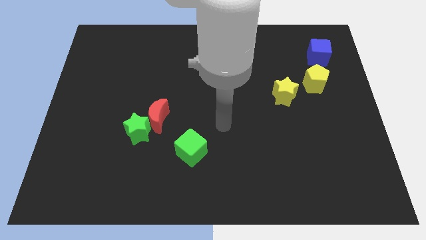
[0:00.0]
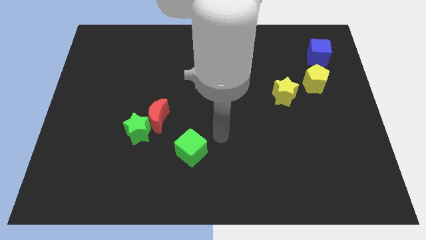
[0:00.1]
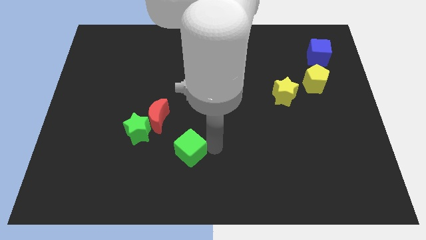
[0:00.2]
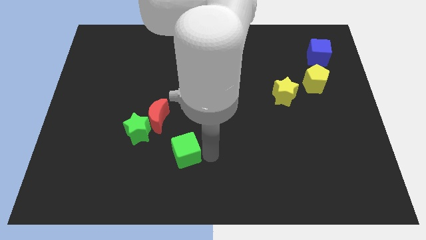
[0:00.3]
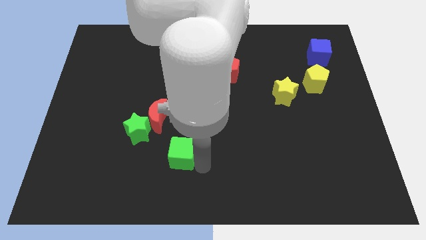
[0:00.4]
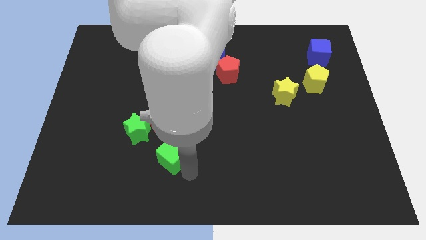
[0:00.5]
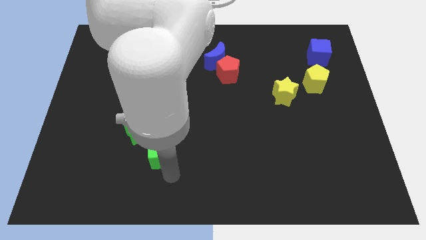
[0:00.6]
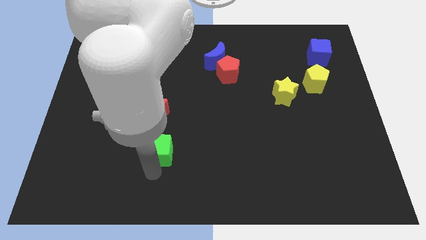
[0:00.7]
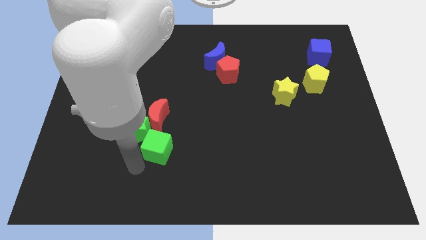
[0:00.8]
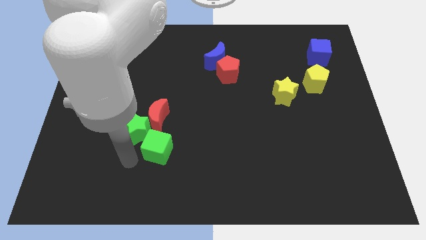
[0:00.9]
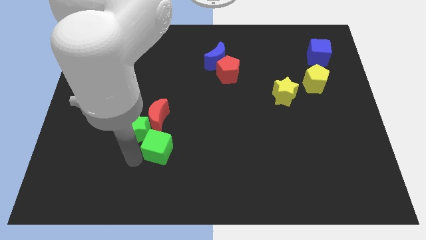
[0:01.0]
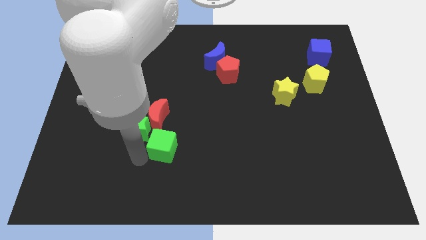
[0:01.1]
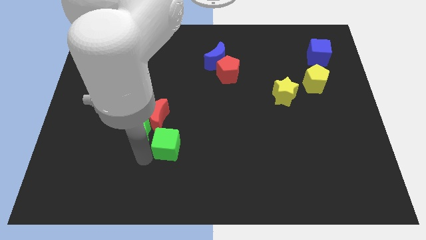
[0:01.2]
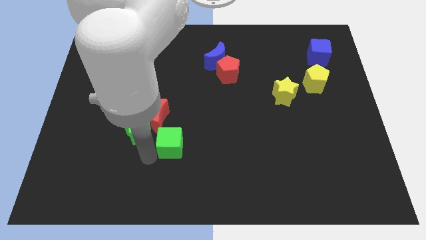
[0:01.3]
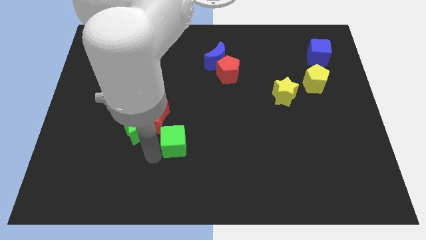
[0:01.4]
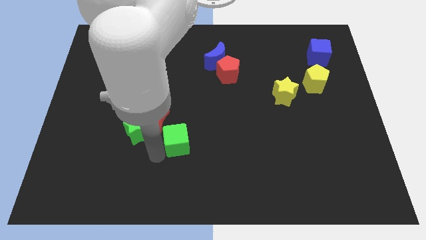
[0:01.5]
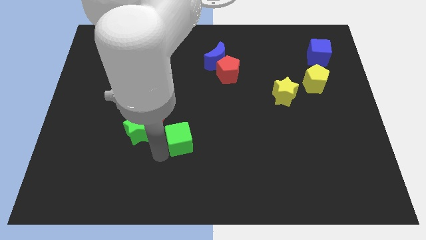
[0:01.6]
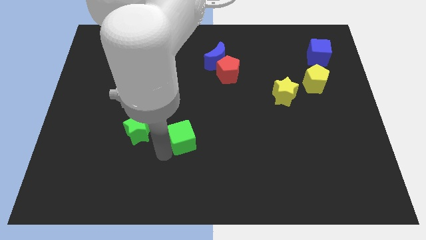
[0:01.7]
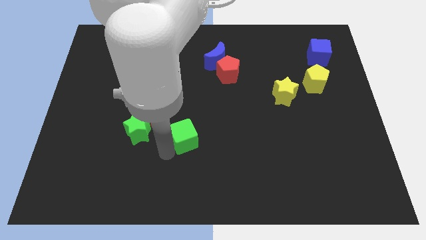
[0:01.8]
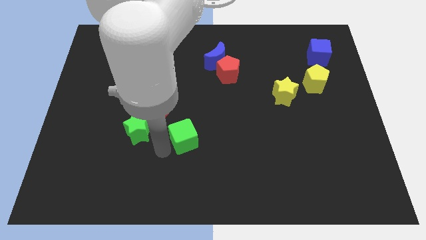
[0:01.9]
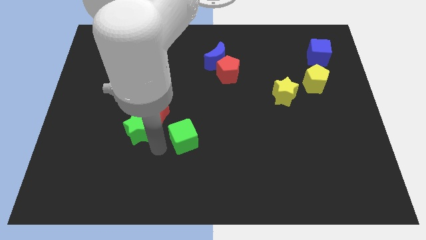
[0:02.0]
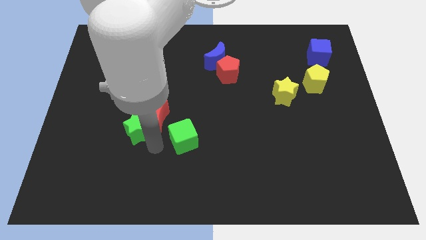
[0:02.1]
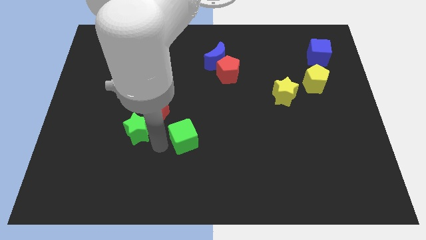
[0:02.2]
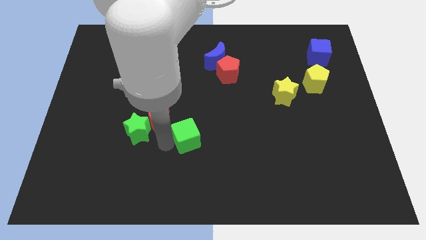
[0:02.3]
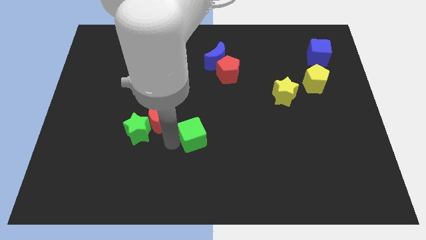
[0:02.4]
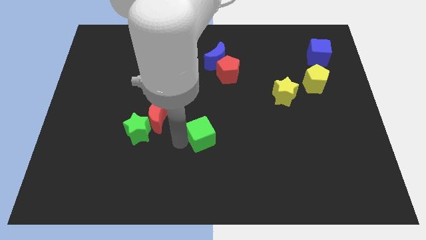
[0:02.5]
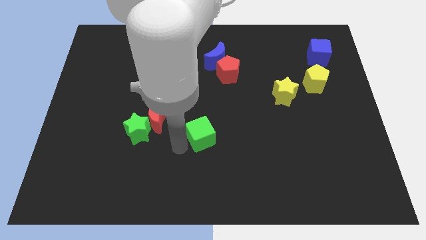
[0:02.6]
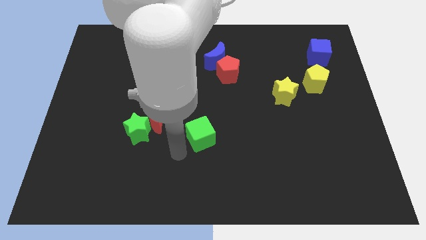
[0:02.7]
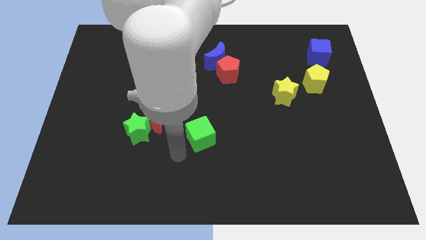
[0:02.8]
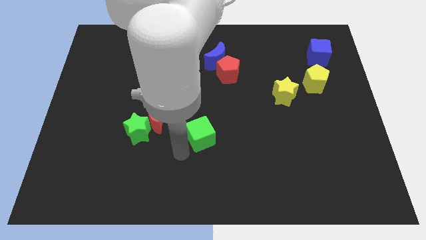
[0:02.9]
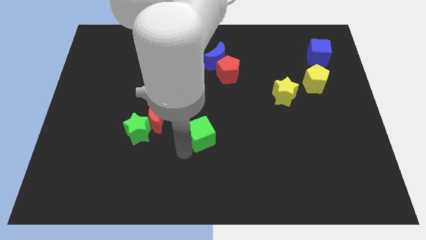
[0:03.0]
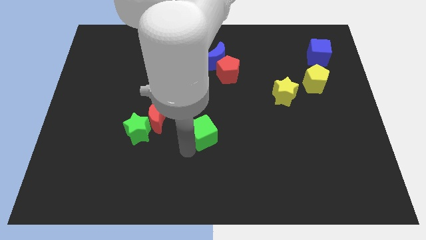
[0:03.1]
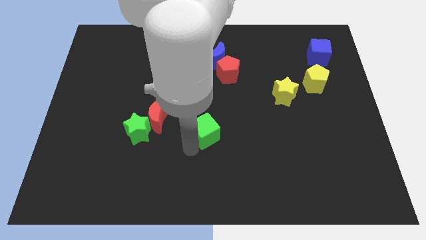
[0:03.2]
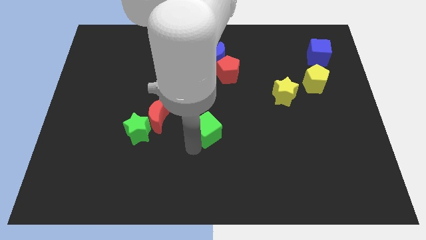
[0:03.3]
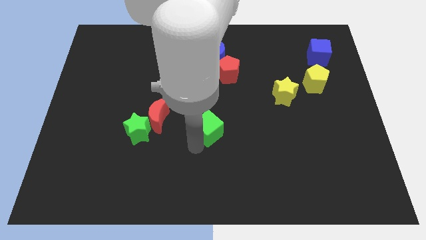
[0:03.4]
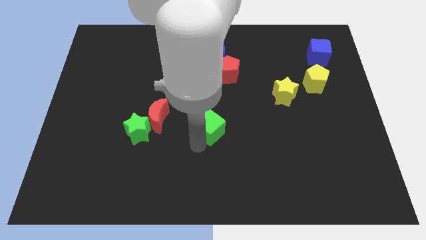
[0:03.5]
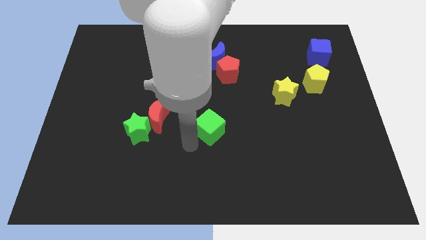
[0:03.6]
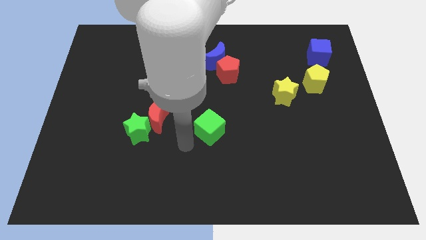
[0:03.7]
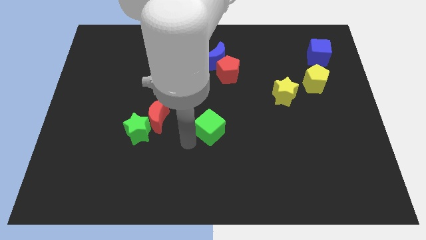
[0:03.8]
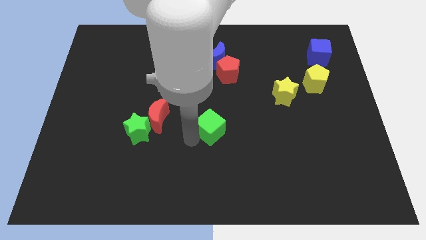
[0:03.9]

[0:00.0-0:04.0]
move the green cube a bit diagonally up and to the right

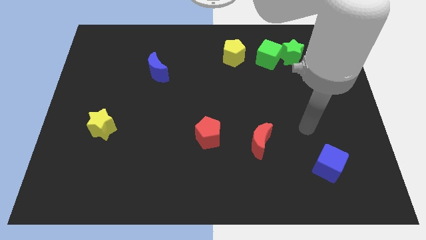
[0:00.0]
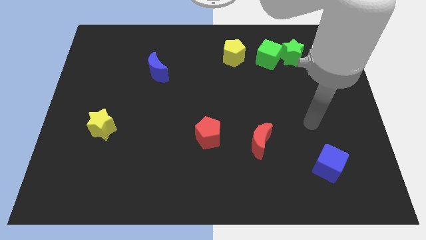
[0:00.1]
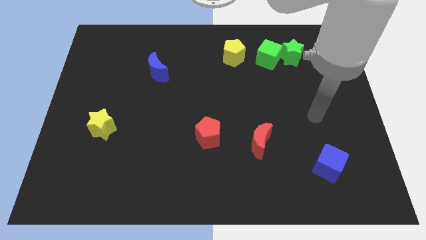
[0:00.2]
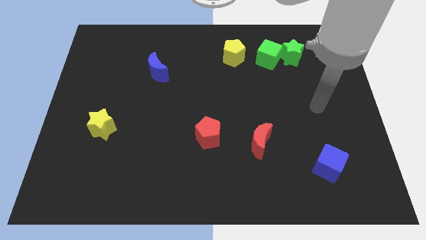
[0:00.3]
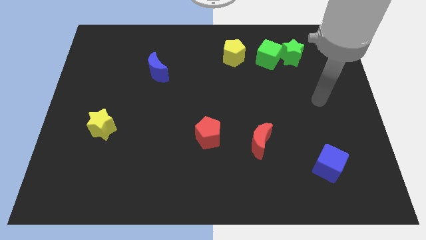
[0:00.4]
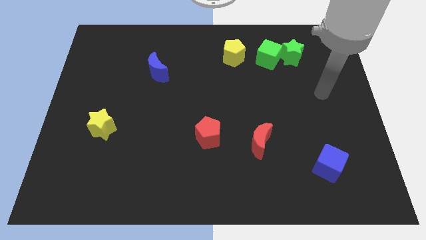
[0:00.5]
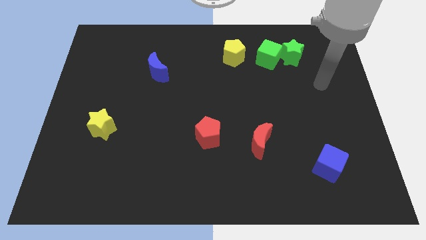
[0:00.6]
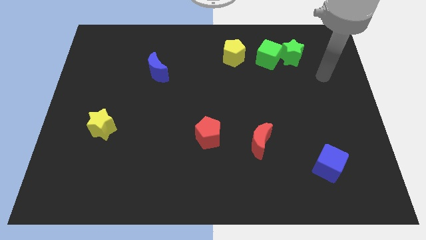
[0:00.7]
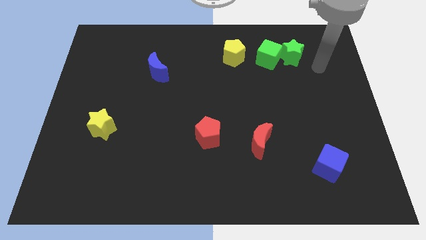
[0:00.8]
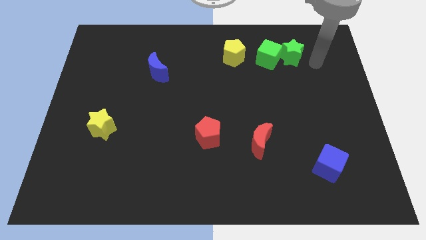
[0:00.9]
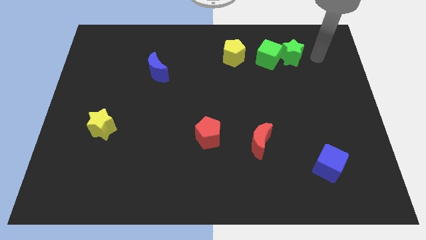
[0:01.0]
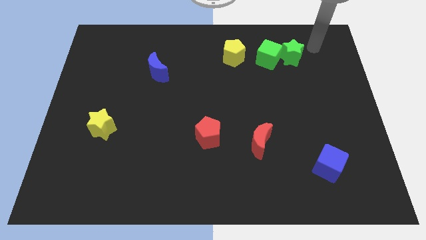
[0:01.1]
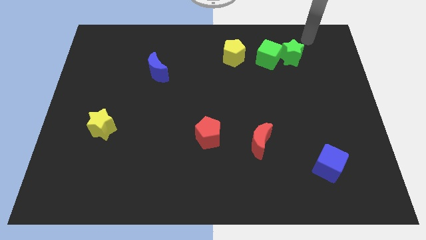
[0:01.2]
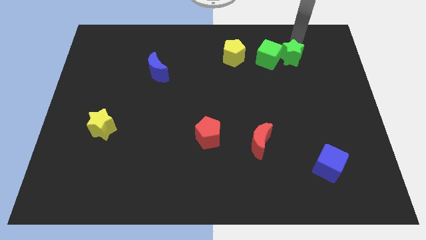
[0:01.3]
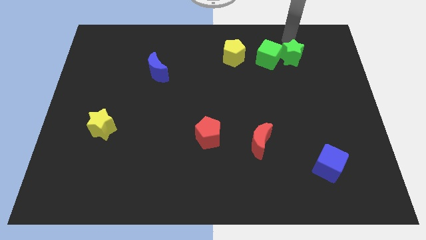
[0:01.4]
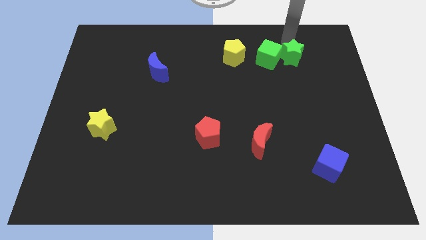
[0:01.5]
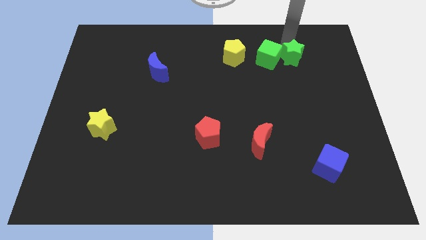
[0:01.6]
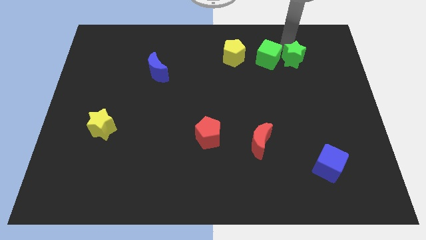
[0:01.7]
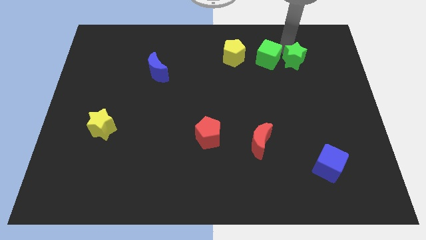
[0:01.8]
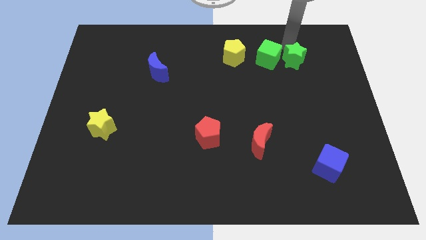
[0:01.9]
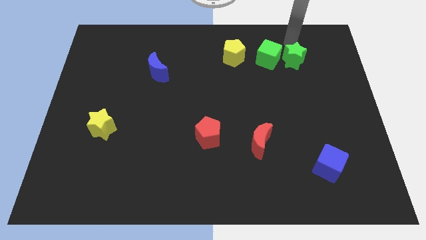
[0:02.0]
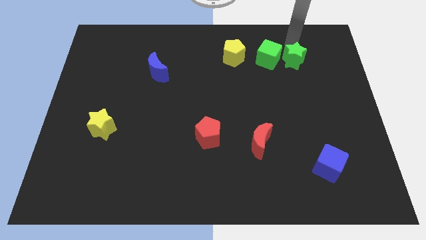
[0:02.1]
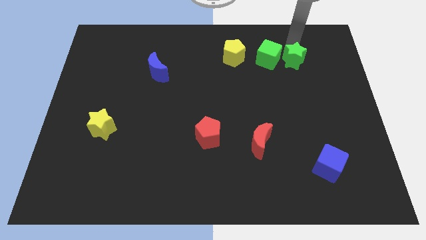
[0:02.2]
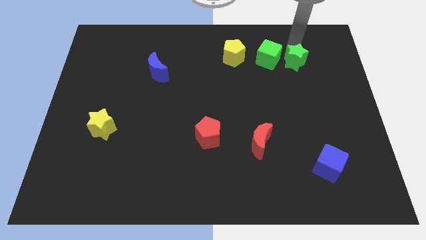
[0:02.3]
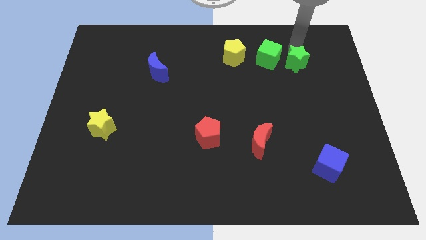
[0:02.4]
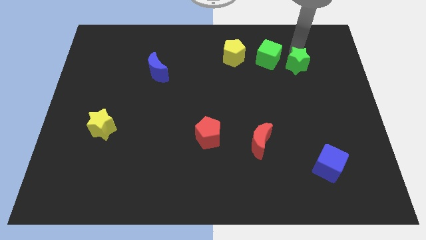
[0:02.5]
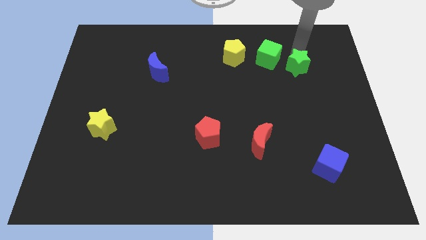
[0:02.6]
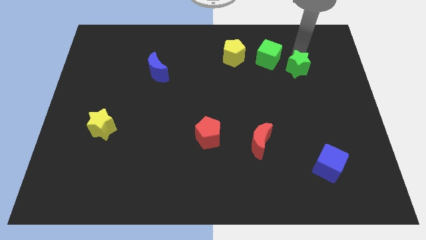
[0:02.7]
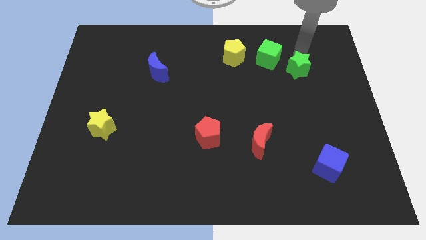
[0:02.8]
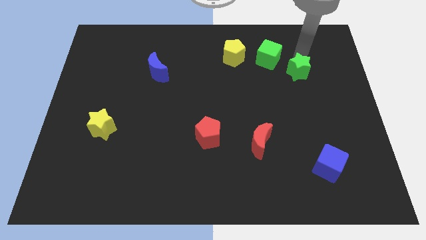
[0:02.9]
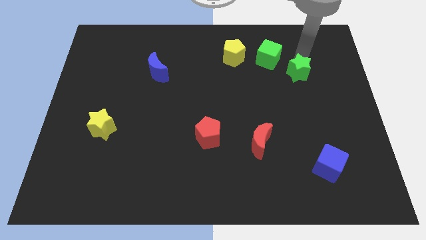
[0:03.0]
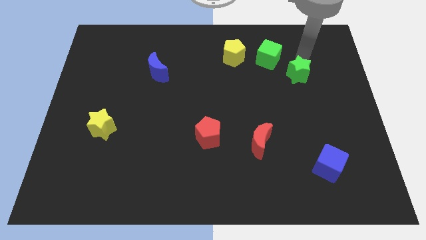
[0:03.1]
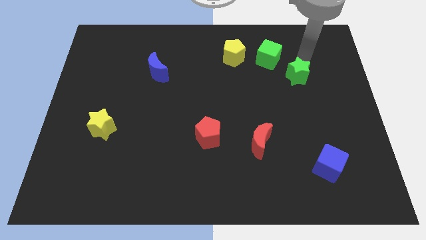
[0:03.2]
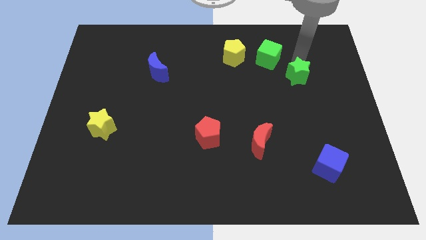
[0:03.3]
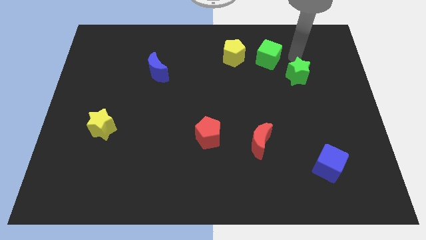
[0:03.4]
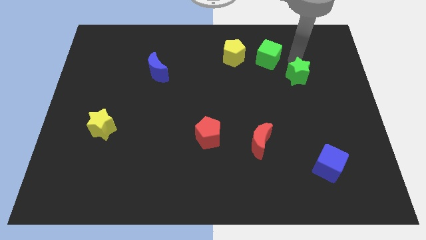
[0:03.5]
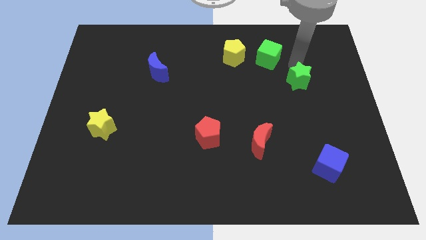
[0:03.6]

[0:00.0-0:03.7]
slide the green star a little downwards

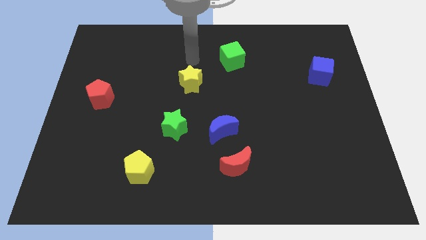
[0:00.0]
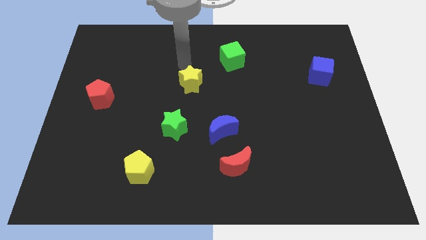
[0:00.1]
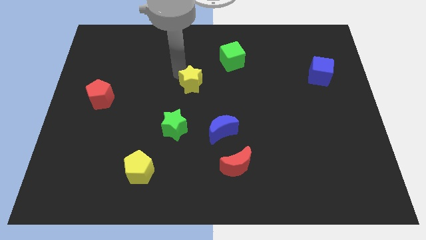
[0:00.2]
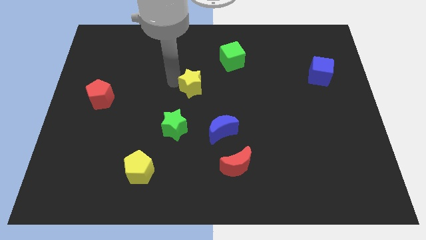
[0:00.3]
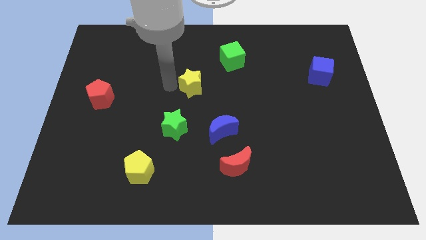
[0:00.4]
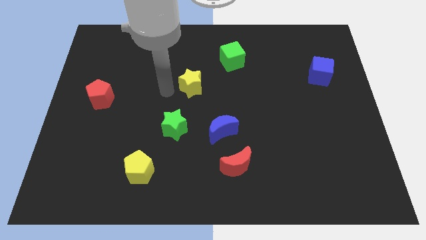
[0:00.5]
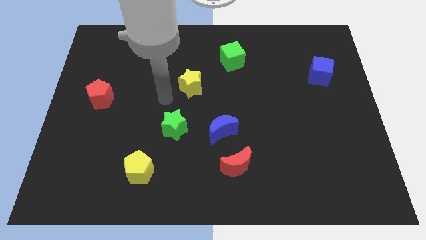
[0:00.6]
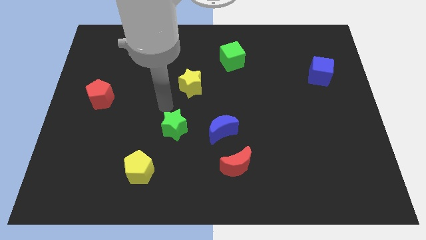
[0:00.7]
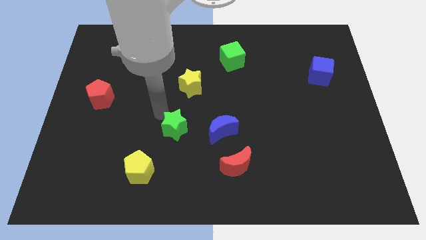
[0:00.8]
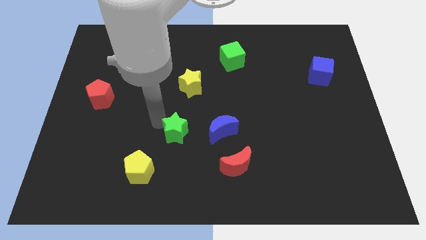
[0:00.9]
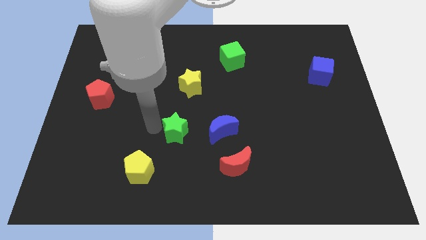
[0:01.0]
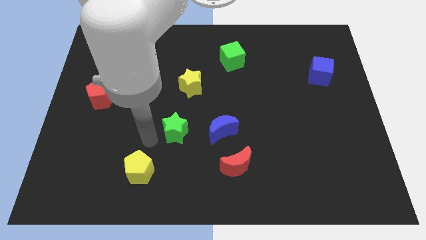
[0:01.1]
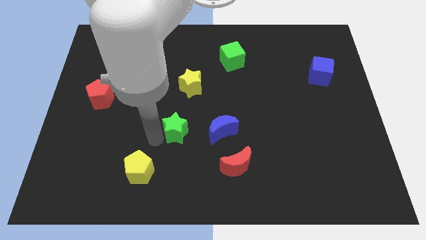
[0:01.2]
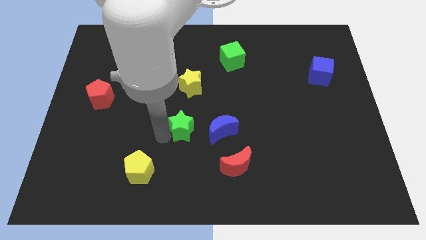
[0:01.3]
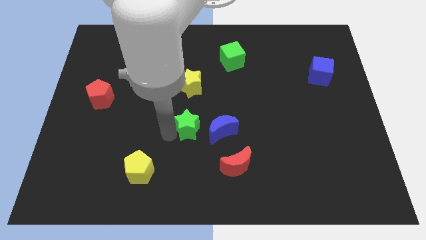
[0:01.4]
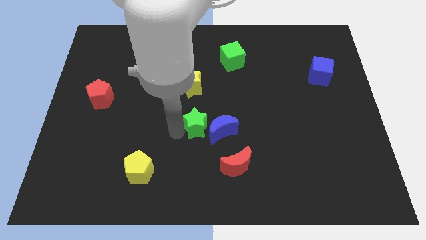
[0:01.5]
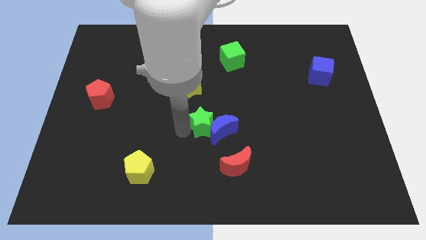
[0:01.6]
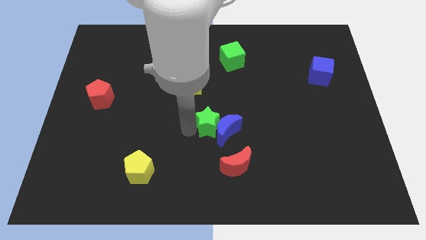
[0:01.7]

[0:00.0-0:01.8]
move the green star somewhat right
